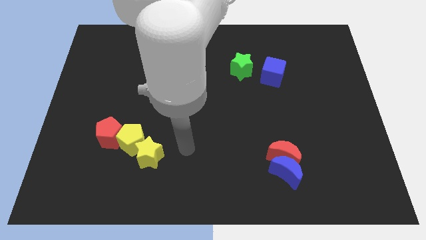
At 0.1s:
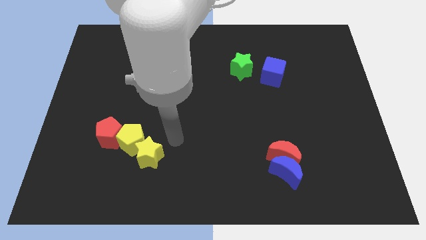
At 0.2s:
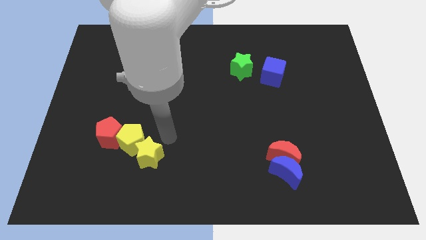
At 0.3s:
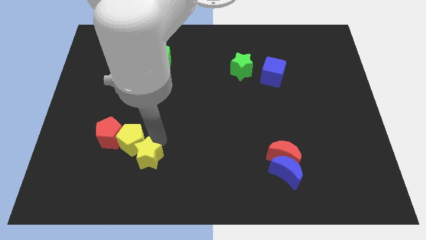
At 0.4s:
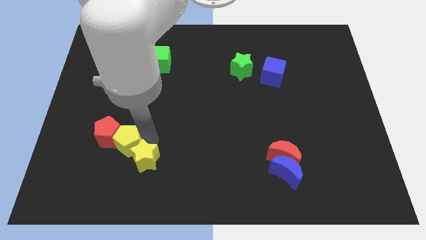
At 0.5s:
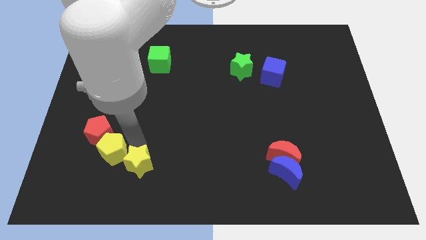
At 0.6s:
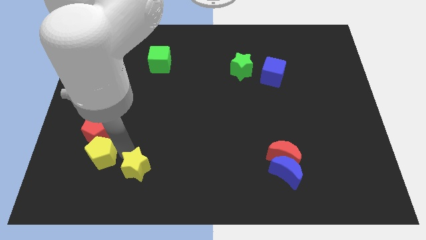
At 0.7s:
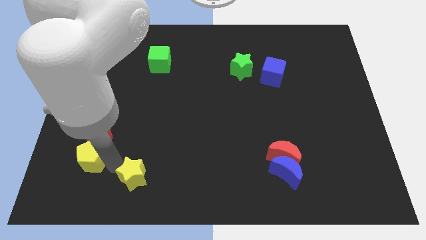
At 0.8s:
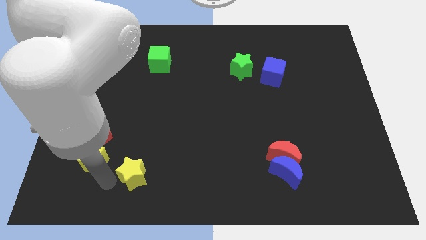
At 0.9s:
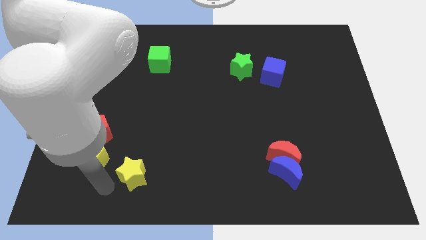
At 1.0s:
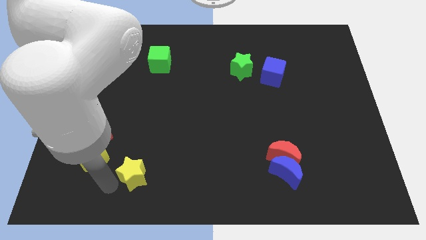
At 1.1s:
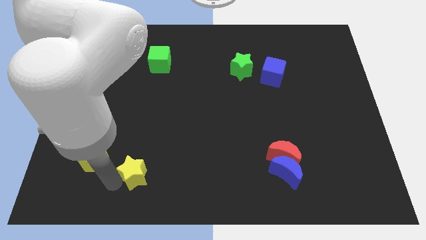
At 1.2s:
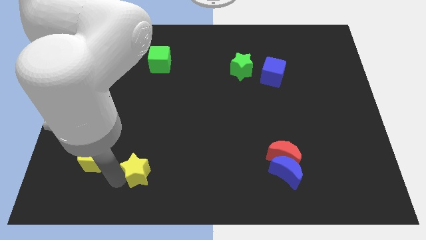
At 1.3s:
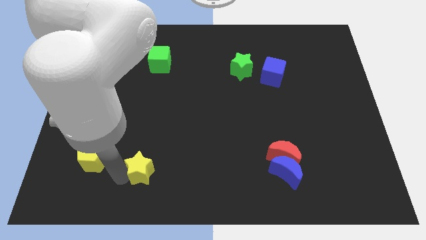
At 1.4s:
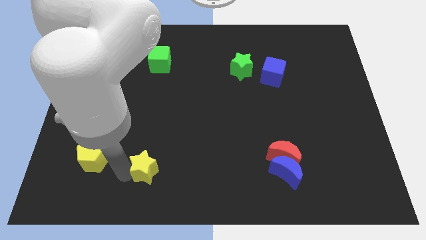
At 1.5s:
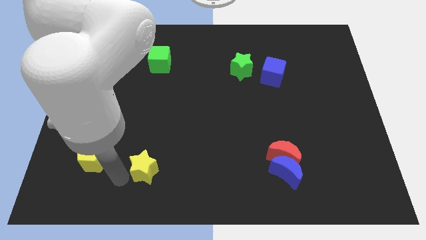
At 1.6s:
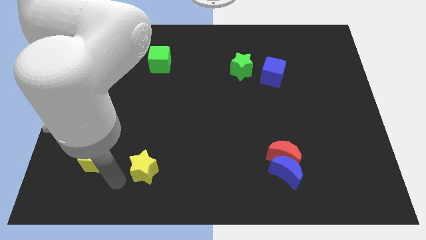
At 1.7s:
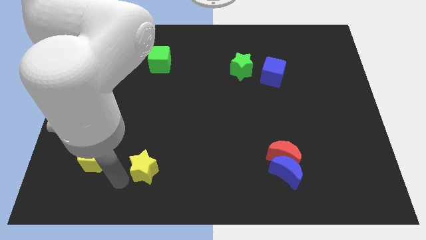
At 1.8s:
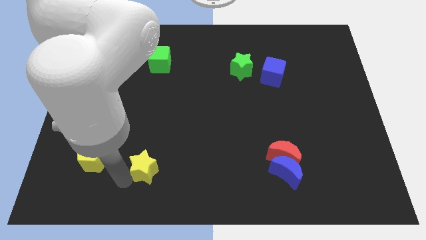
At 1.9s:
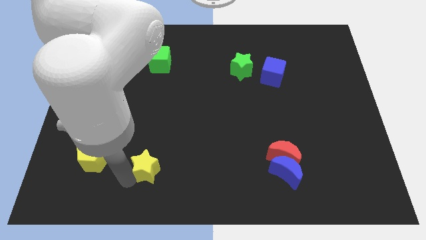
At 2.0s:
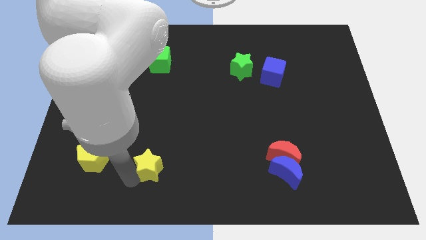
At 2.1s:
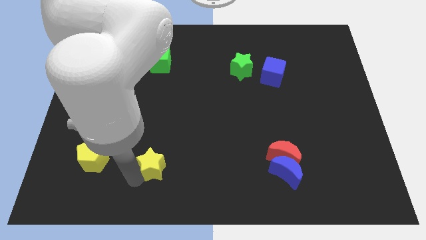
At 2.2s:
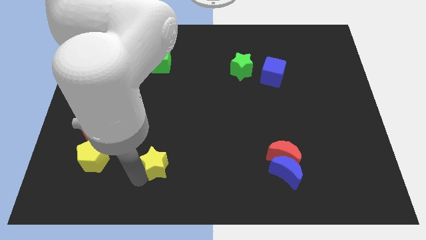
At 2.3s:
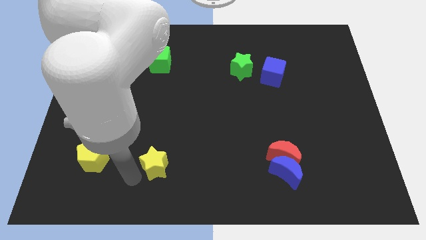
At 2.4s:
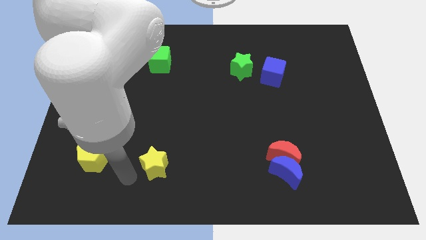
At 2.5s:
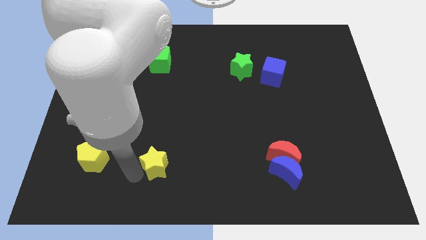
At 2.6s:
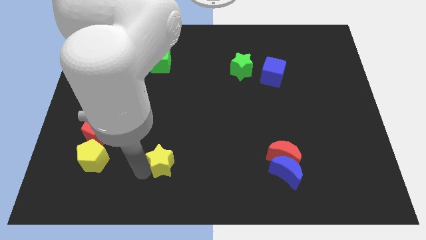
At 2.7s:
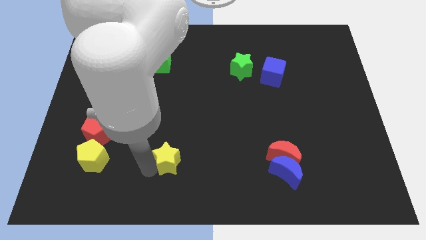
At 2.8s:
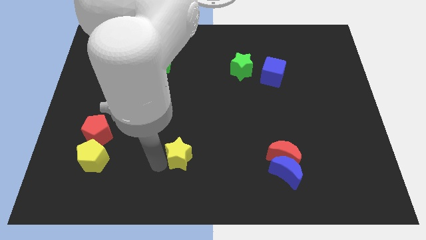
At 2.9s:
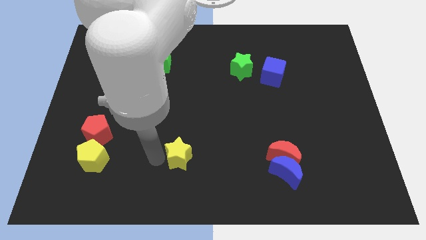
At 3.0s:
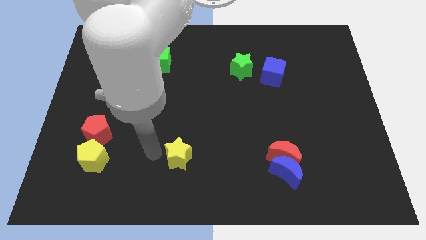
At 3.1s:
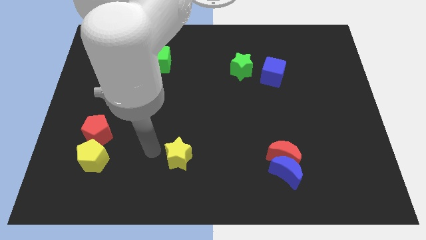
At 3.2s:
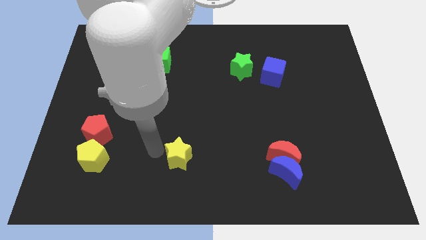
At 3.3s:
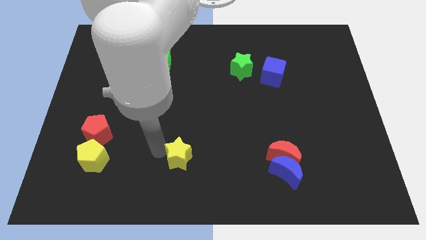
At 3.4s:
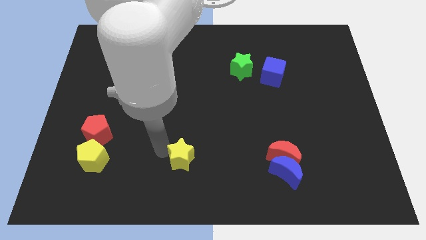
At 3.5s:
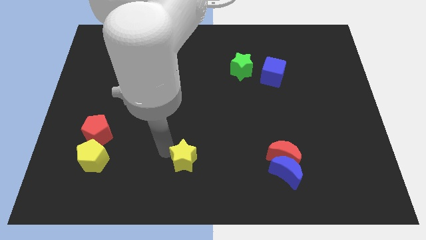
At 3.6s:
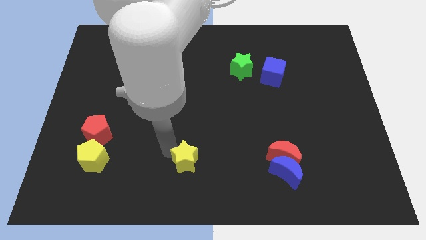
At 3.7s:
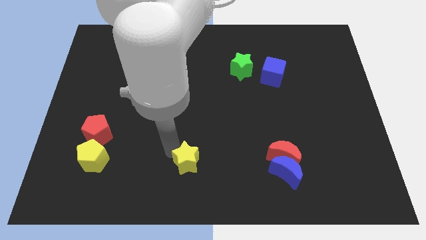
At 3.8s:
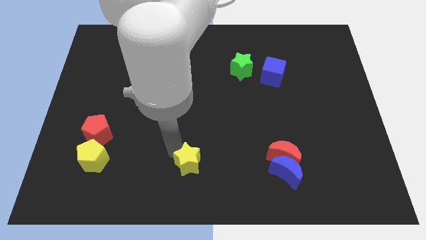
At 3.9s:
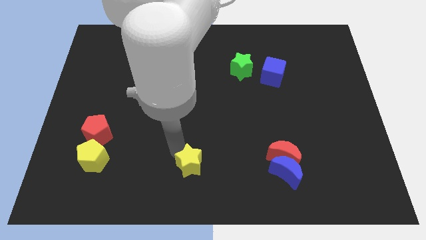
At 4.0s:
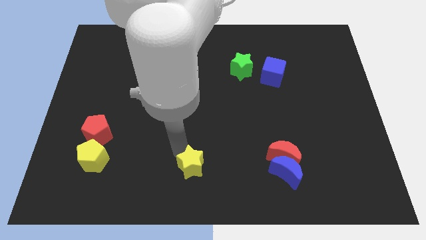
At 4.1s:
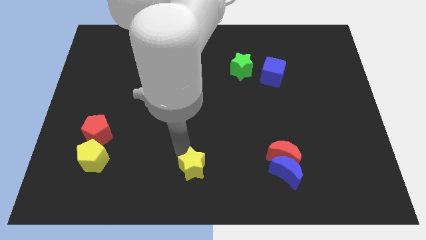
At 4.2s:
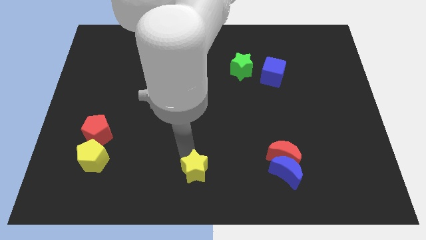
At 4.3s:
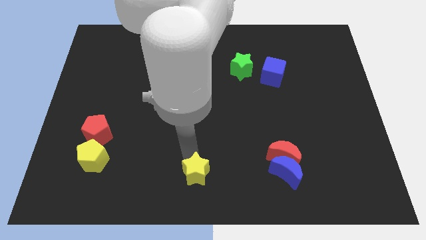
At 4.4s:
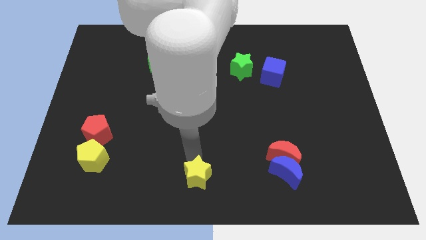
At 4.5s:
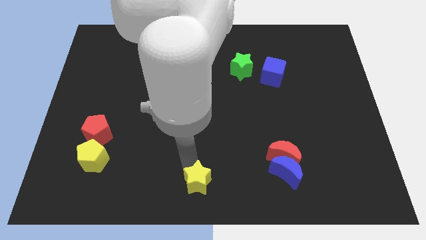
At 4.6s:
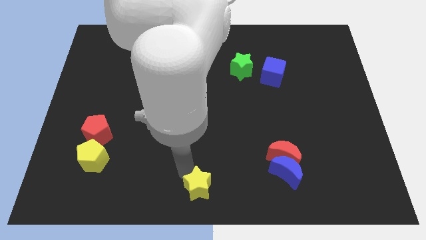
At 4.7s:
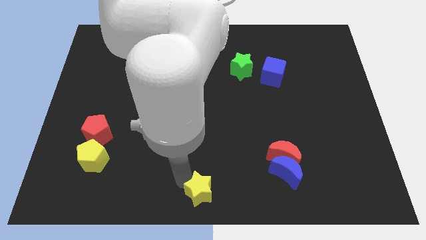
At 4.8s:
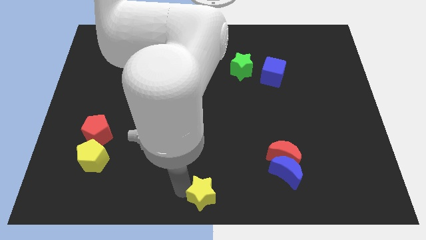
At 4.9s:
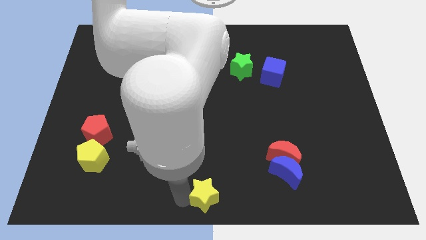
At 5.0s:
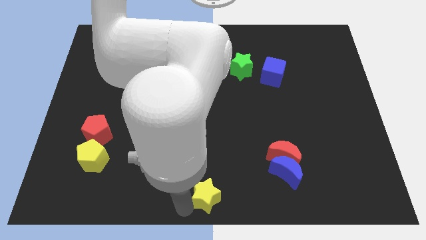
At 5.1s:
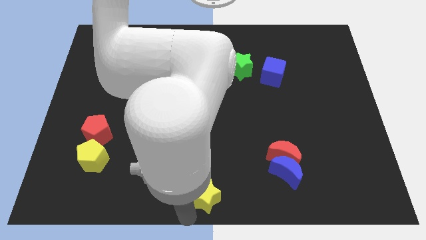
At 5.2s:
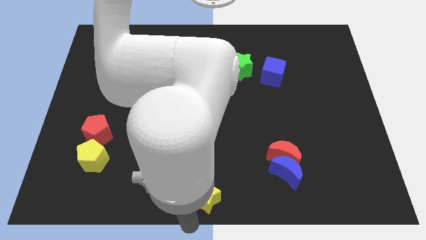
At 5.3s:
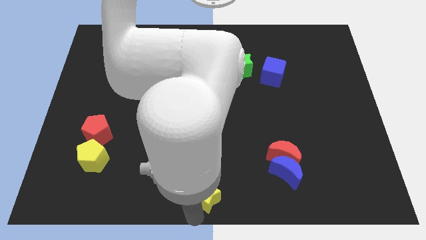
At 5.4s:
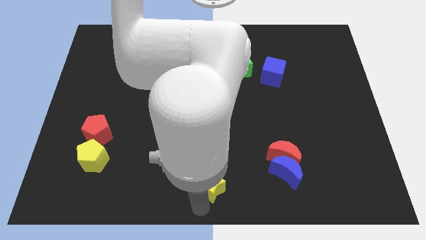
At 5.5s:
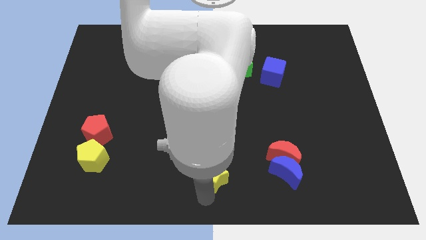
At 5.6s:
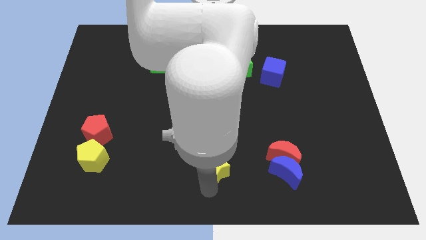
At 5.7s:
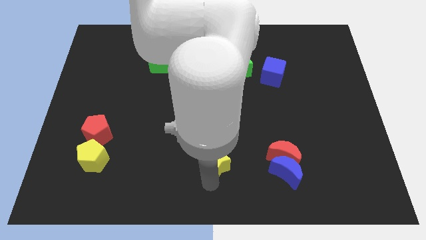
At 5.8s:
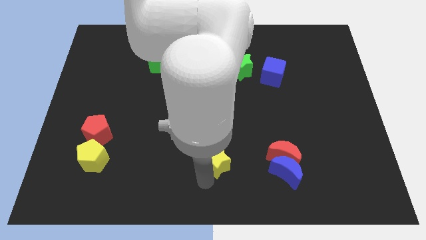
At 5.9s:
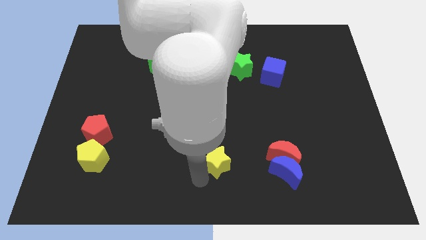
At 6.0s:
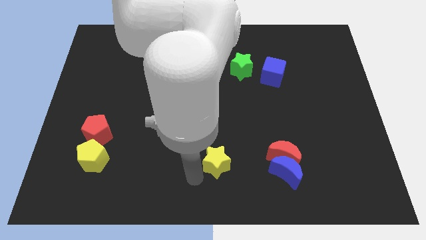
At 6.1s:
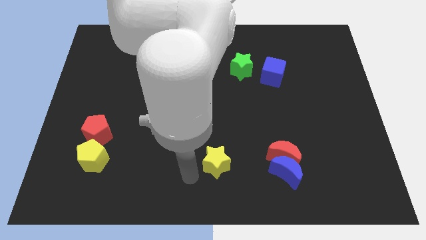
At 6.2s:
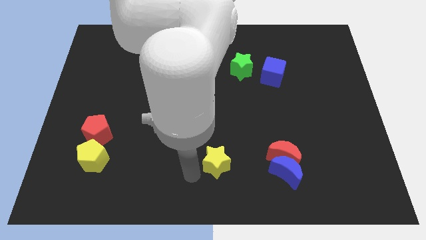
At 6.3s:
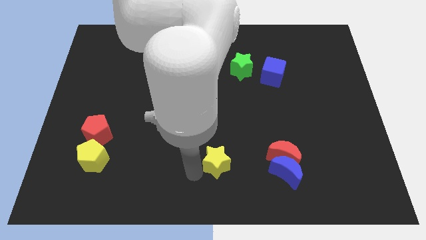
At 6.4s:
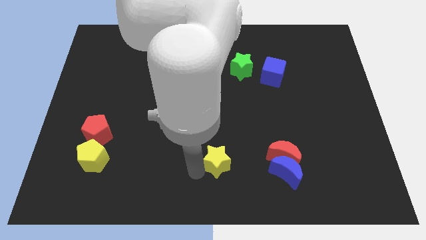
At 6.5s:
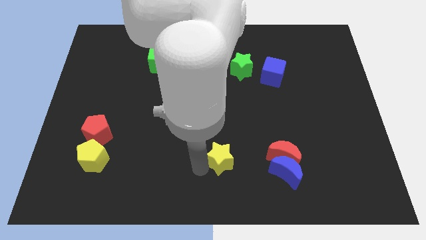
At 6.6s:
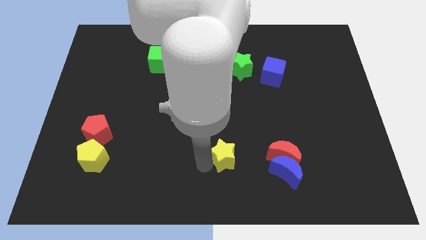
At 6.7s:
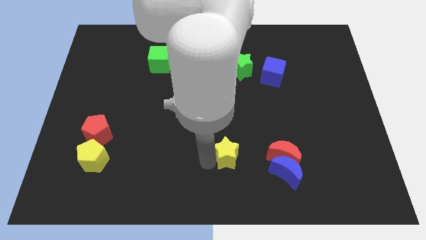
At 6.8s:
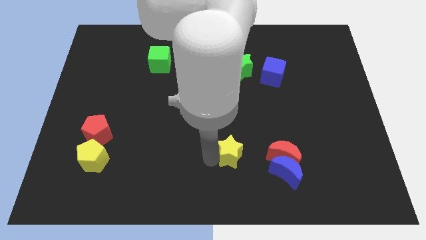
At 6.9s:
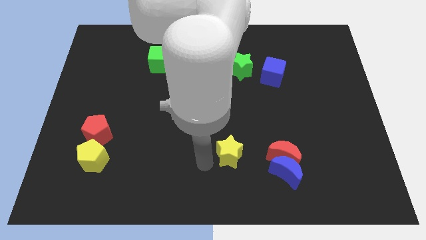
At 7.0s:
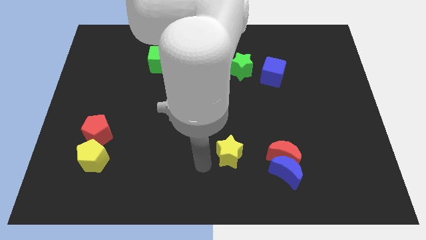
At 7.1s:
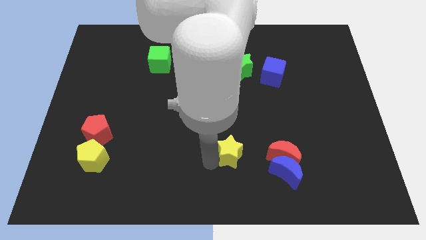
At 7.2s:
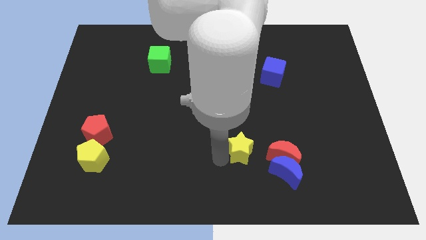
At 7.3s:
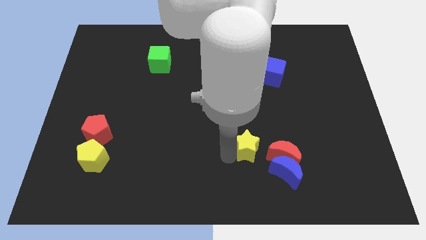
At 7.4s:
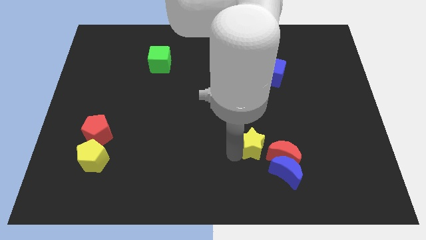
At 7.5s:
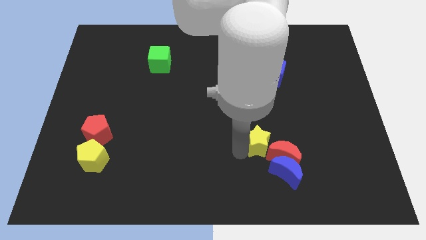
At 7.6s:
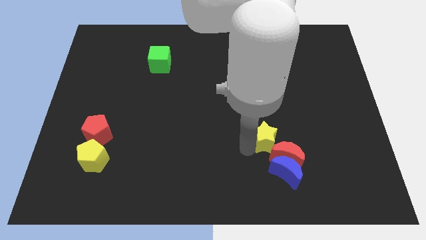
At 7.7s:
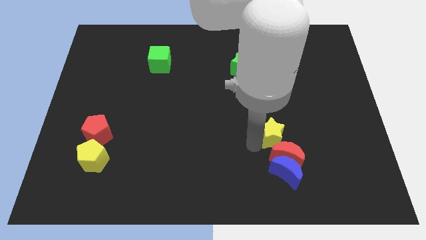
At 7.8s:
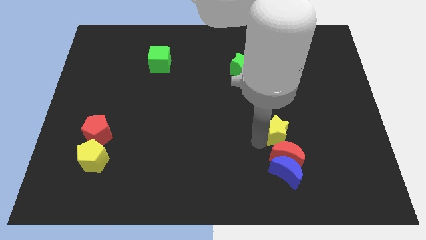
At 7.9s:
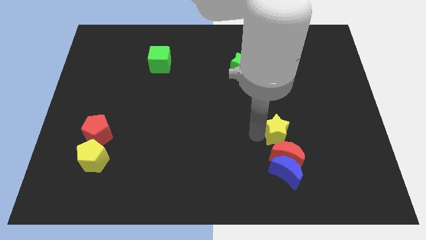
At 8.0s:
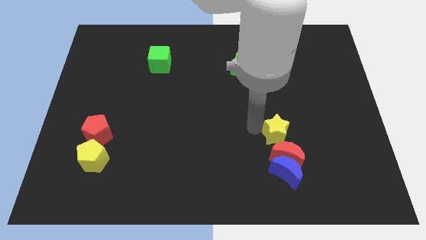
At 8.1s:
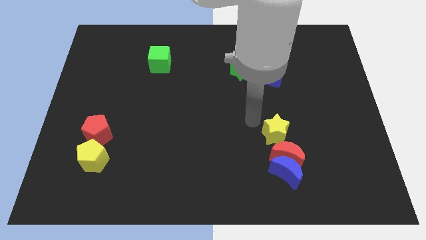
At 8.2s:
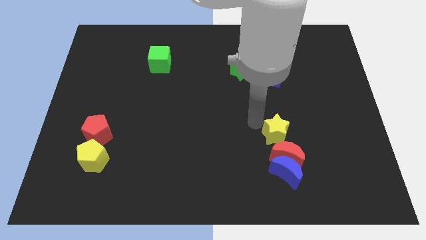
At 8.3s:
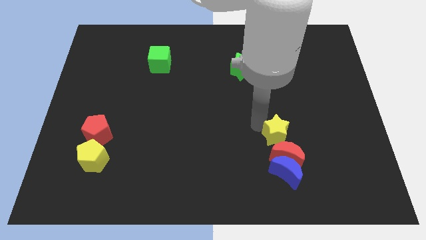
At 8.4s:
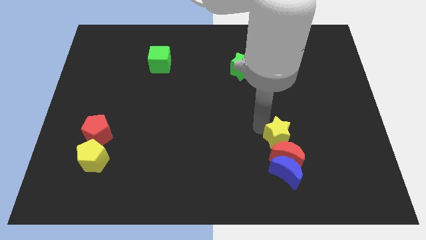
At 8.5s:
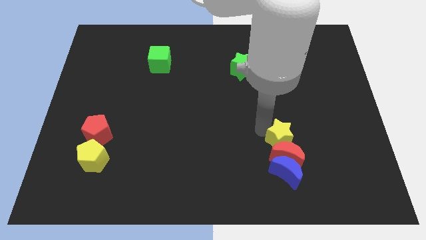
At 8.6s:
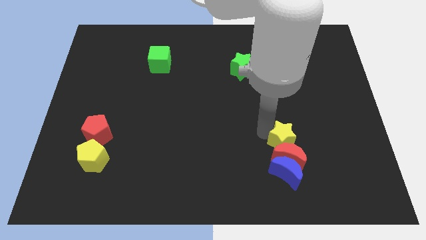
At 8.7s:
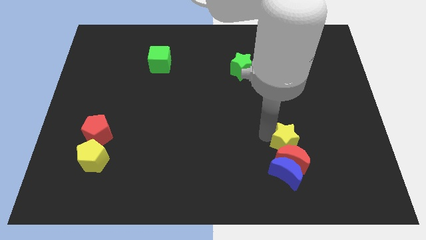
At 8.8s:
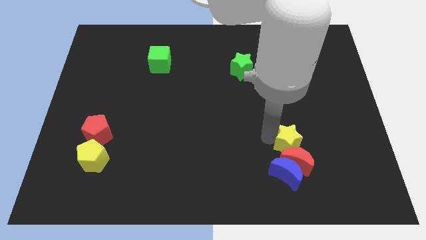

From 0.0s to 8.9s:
put the yellow star diagonally up and to the right of the blue moon
